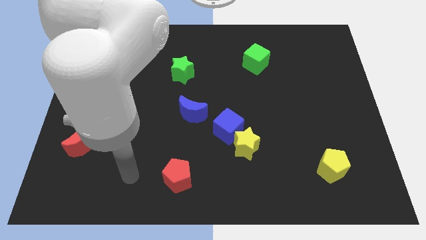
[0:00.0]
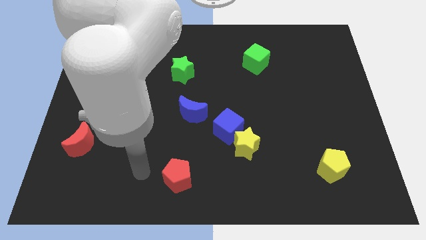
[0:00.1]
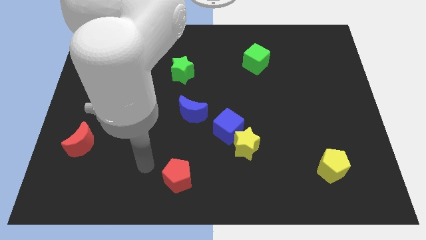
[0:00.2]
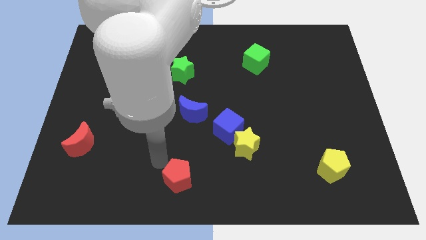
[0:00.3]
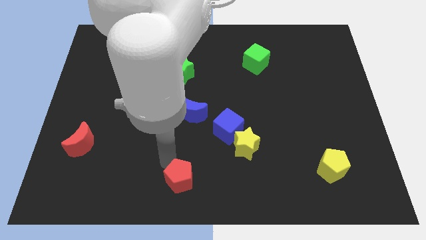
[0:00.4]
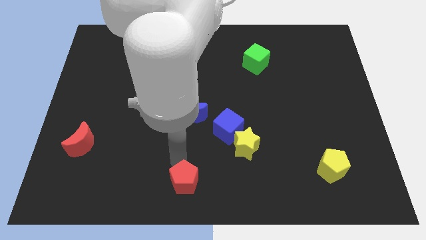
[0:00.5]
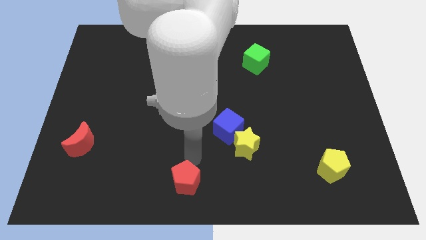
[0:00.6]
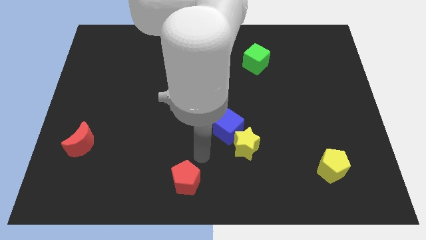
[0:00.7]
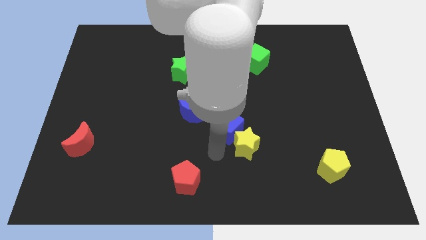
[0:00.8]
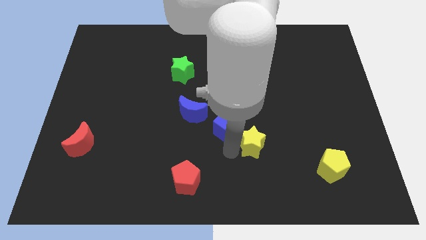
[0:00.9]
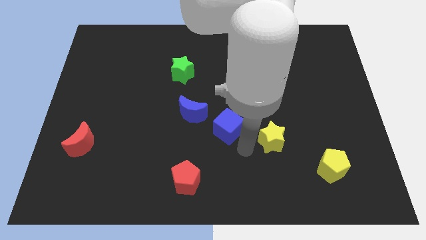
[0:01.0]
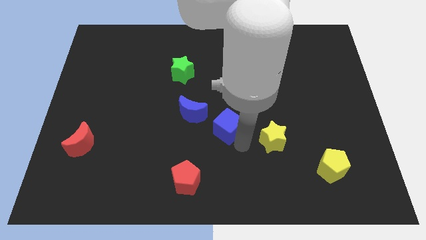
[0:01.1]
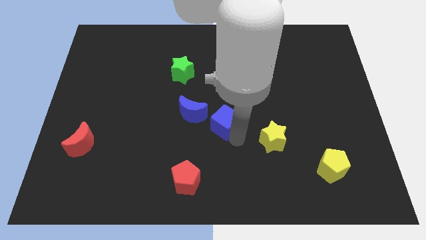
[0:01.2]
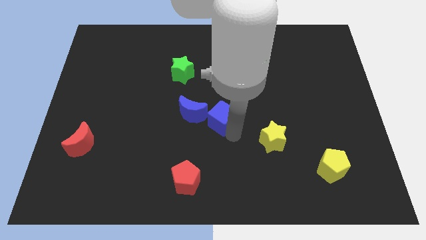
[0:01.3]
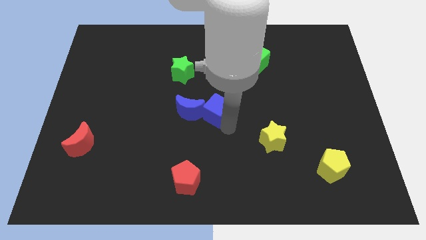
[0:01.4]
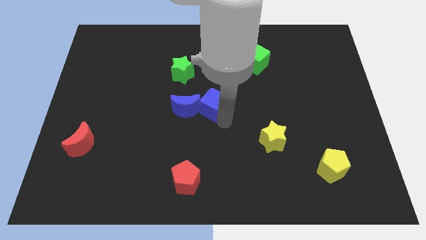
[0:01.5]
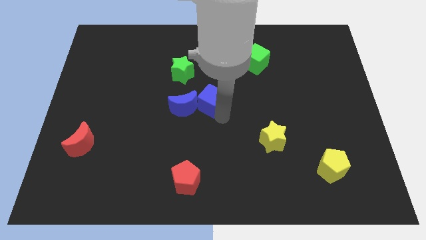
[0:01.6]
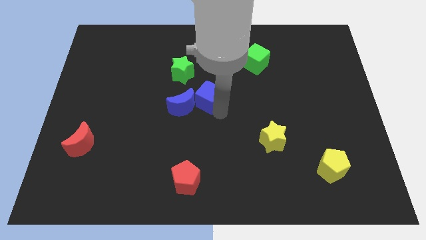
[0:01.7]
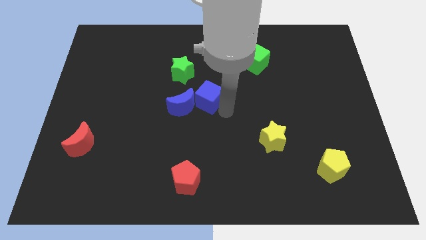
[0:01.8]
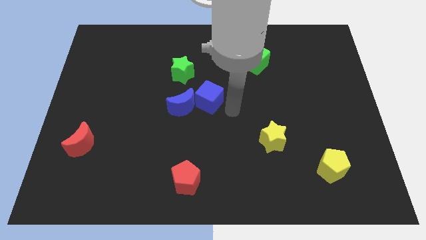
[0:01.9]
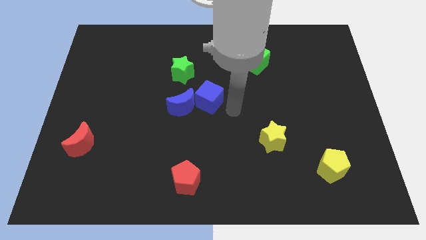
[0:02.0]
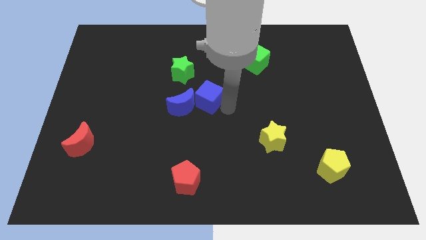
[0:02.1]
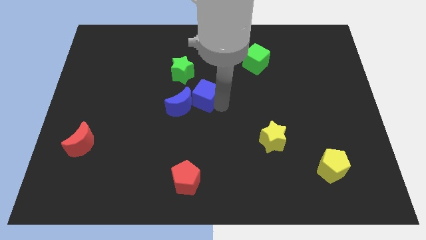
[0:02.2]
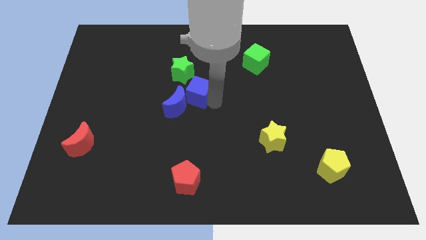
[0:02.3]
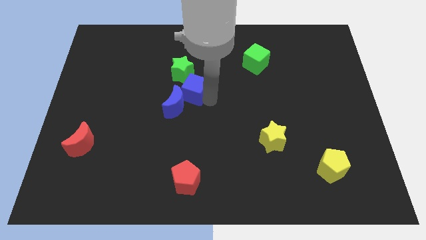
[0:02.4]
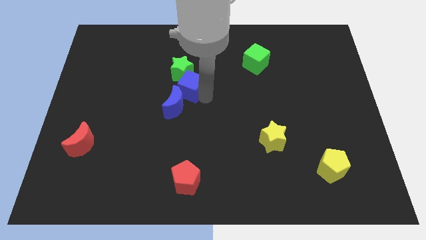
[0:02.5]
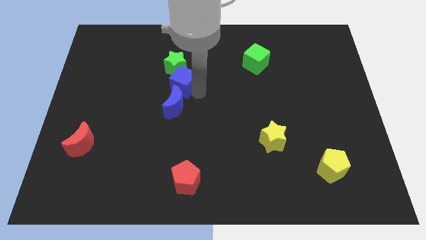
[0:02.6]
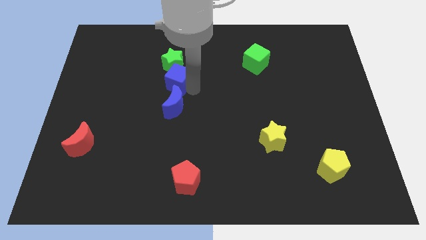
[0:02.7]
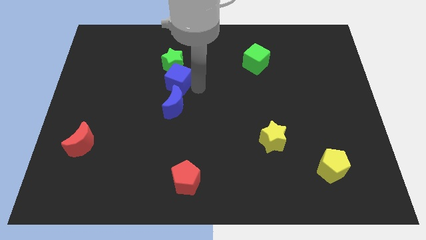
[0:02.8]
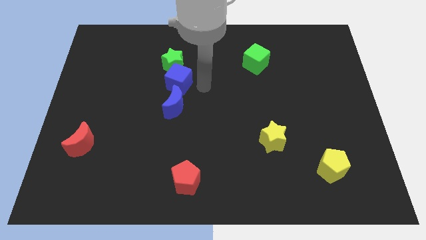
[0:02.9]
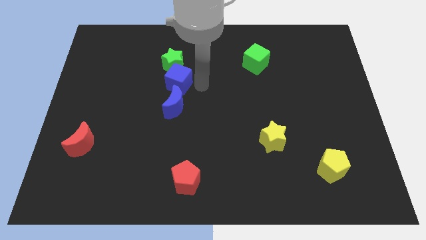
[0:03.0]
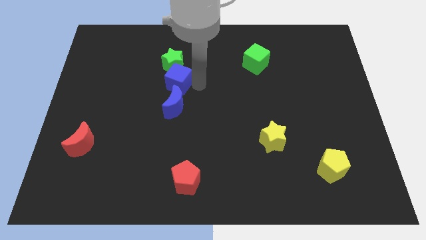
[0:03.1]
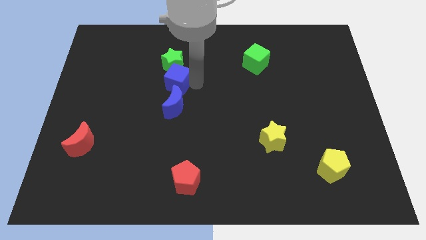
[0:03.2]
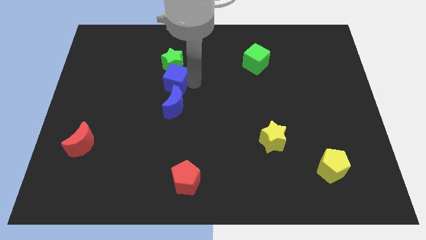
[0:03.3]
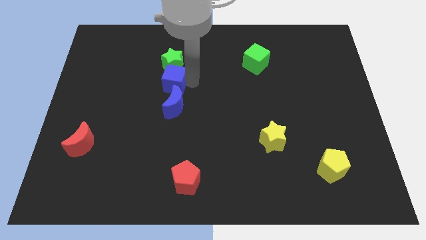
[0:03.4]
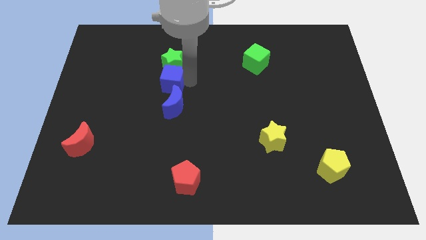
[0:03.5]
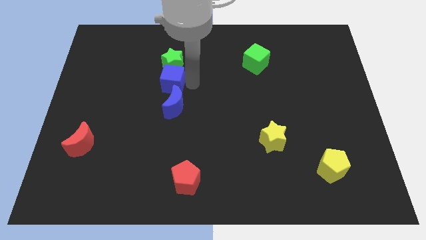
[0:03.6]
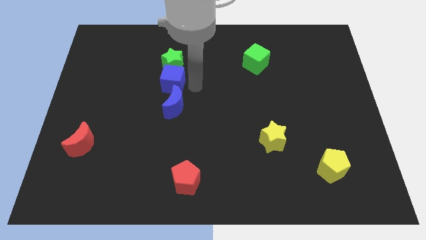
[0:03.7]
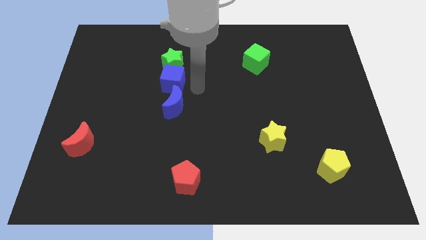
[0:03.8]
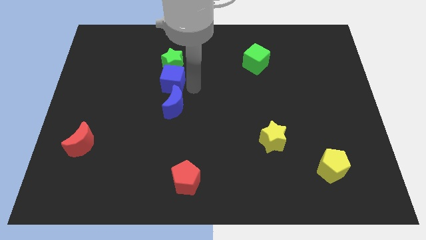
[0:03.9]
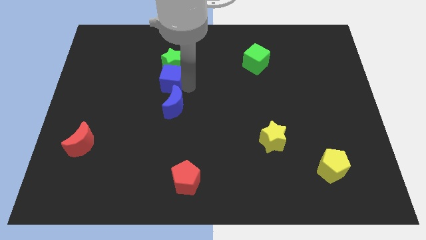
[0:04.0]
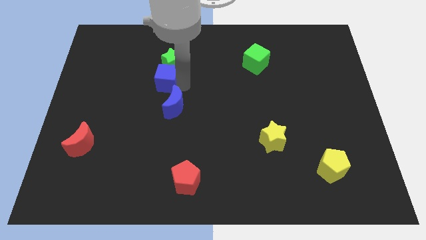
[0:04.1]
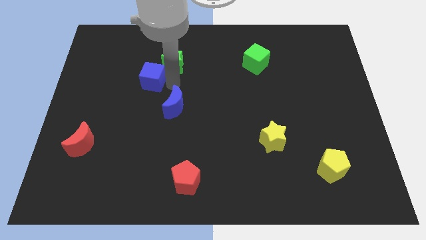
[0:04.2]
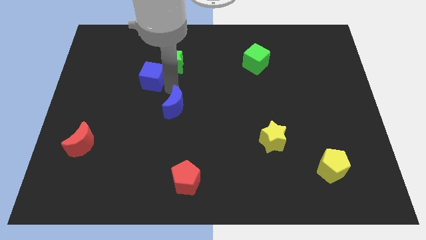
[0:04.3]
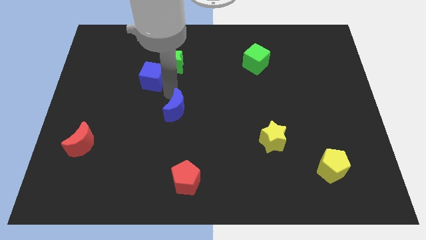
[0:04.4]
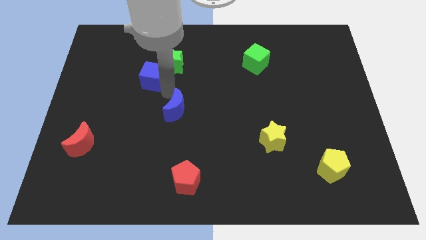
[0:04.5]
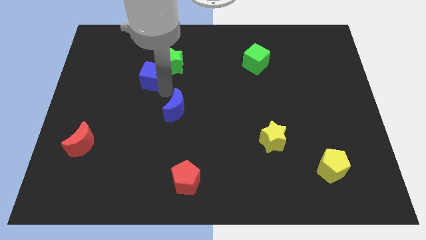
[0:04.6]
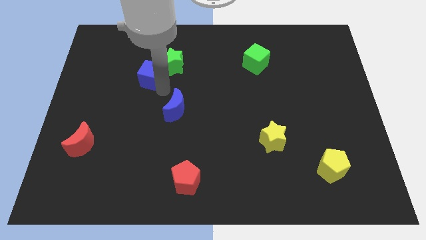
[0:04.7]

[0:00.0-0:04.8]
move the blue cube to the left side of the green star

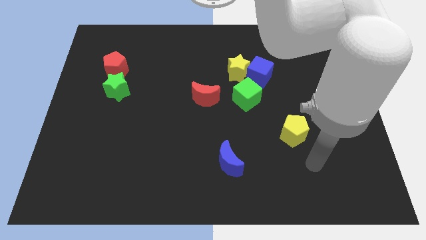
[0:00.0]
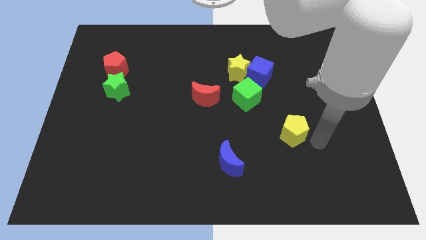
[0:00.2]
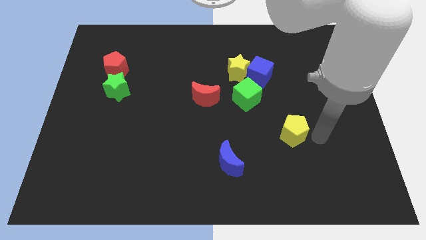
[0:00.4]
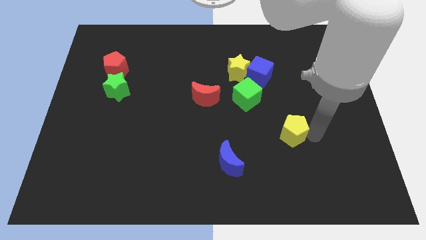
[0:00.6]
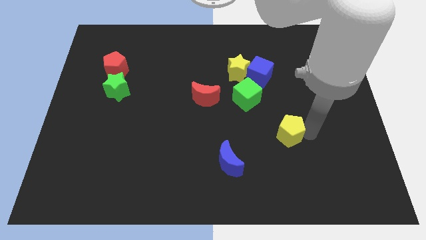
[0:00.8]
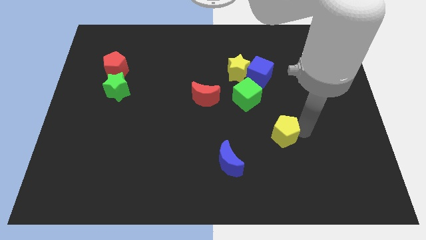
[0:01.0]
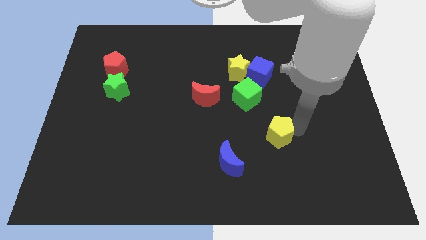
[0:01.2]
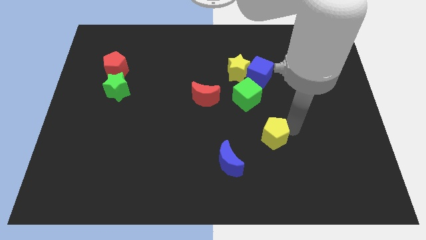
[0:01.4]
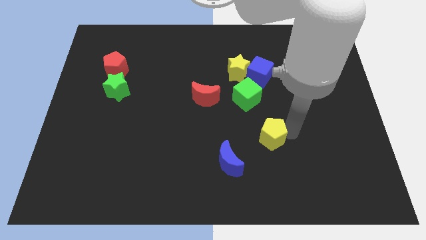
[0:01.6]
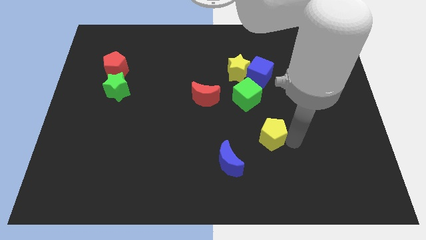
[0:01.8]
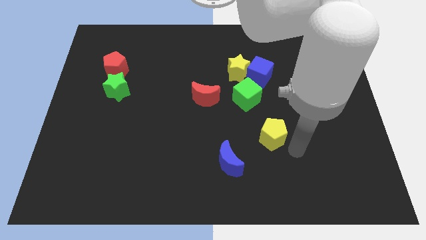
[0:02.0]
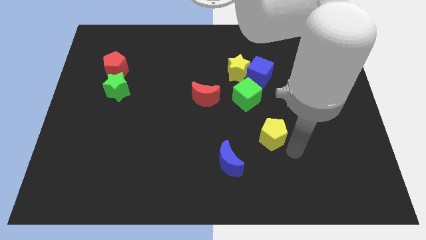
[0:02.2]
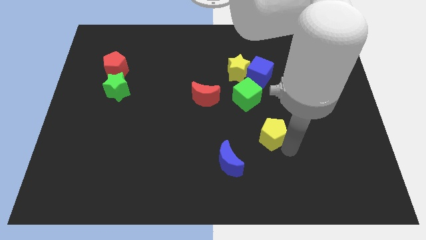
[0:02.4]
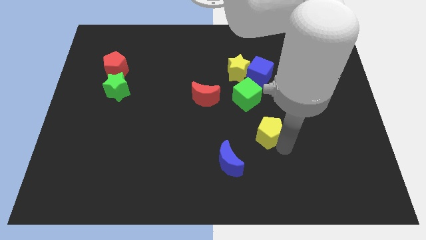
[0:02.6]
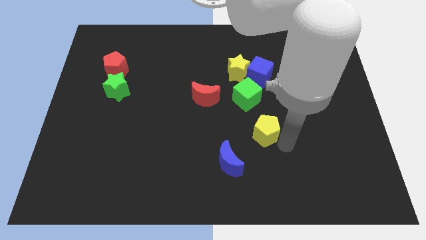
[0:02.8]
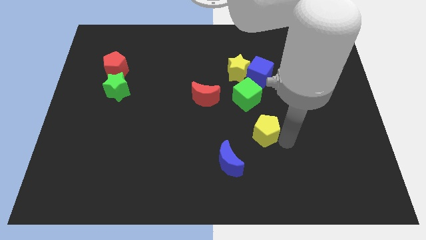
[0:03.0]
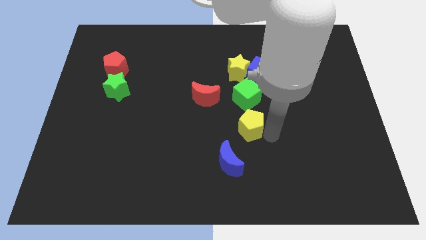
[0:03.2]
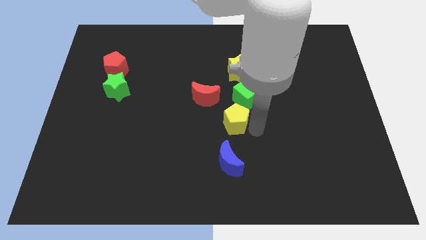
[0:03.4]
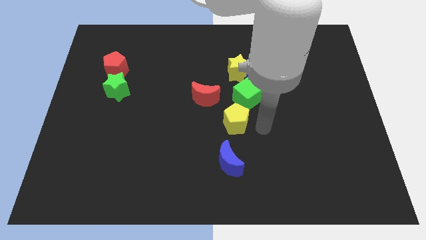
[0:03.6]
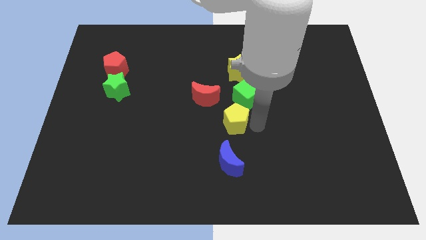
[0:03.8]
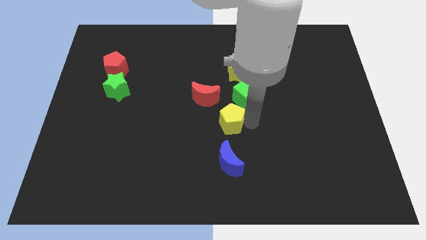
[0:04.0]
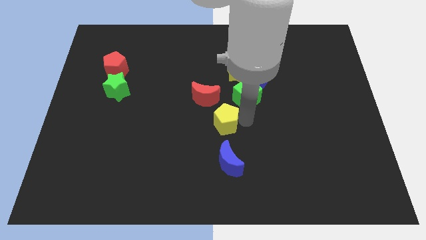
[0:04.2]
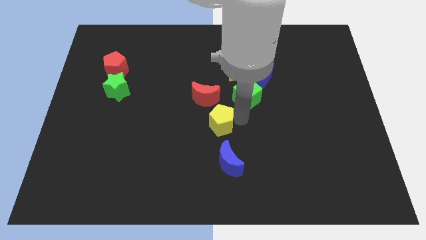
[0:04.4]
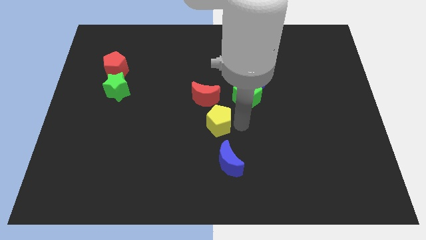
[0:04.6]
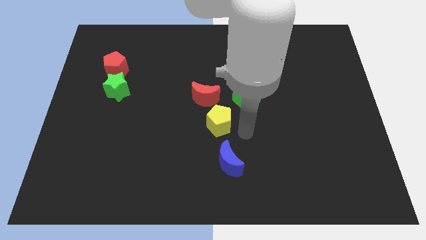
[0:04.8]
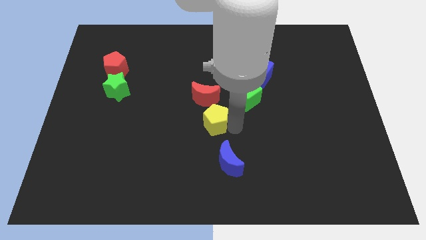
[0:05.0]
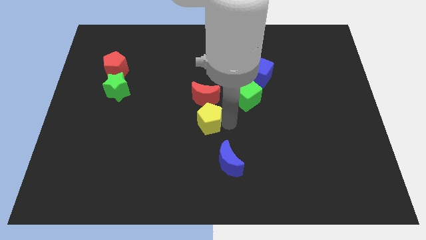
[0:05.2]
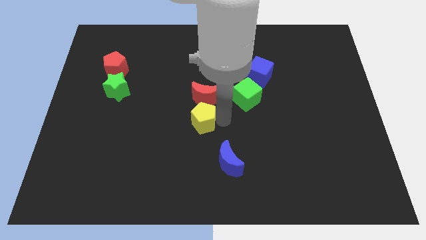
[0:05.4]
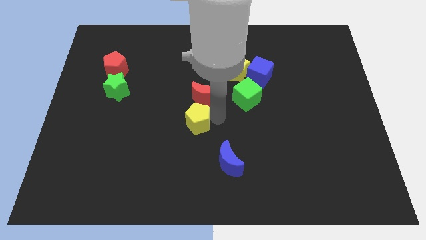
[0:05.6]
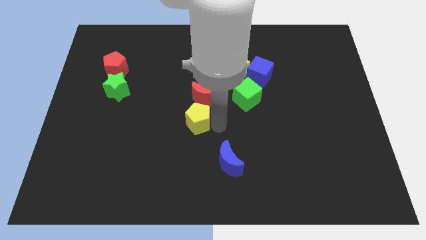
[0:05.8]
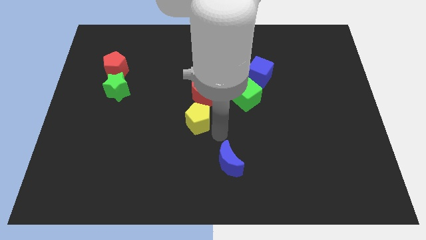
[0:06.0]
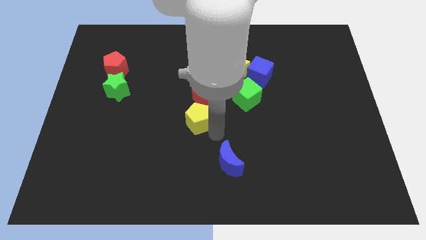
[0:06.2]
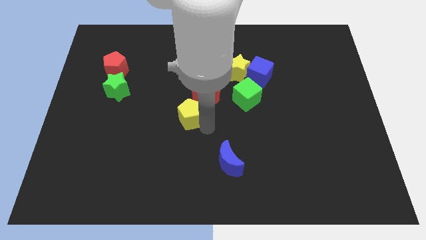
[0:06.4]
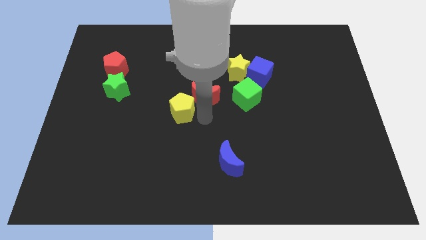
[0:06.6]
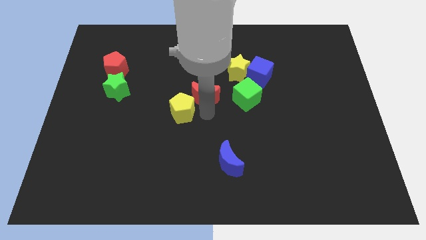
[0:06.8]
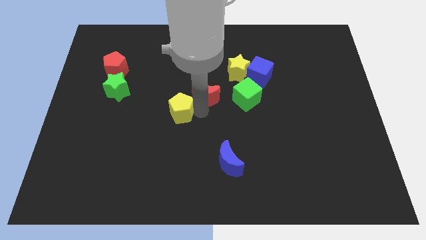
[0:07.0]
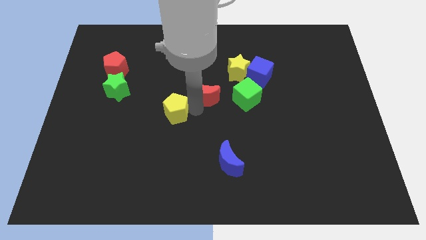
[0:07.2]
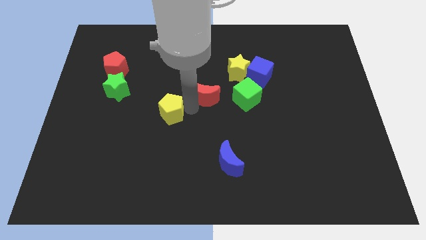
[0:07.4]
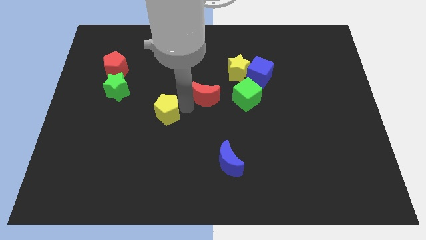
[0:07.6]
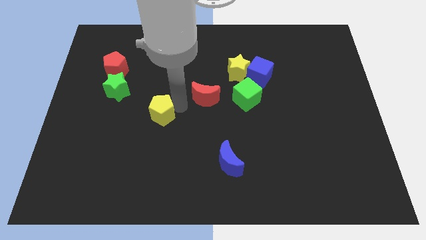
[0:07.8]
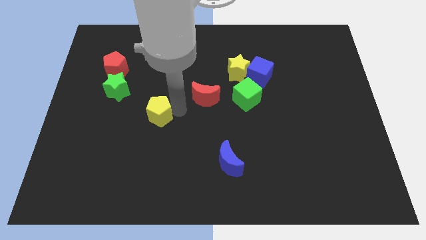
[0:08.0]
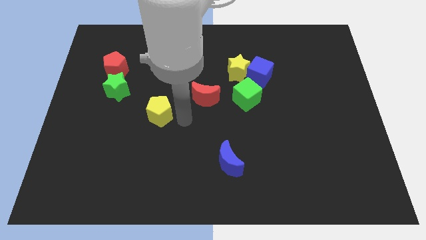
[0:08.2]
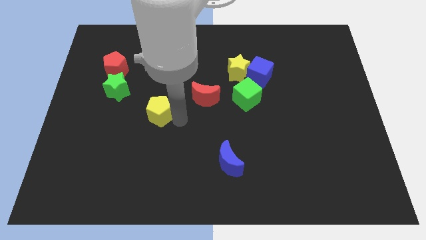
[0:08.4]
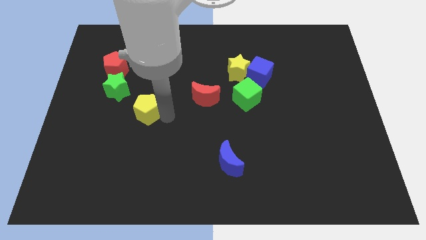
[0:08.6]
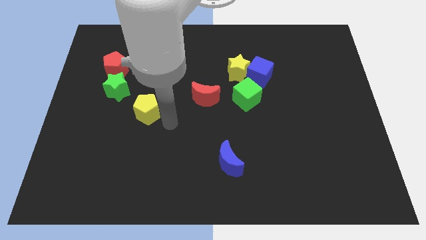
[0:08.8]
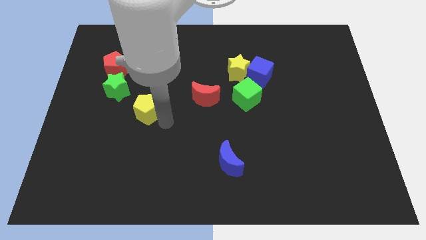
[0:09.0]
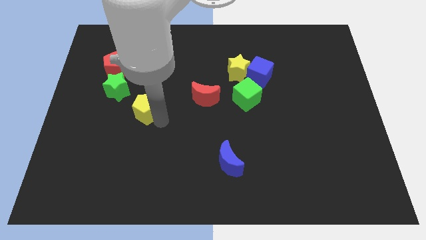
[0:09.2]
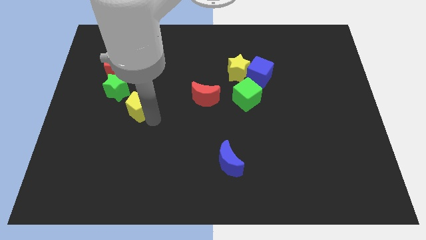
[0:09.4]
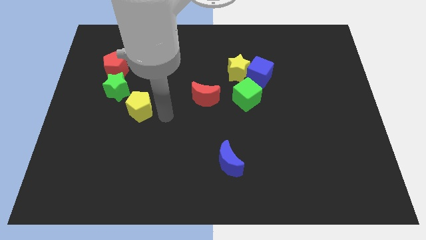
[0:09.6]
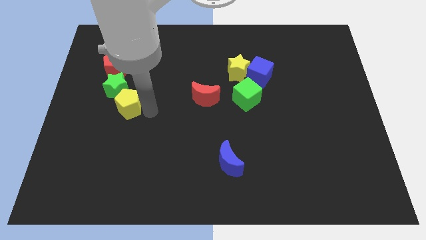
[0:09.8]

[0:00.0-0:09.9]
put the yellow pentagon below the red pentagon
